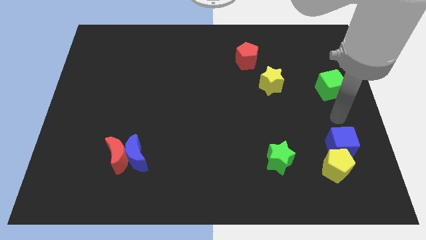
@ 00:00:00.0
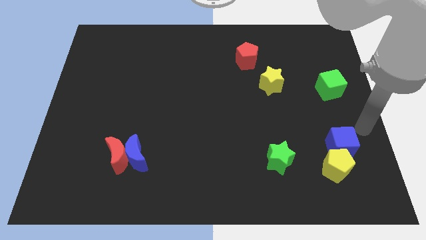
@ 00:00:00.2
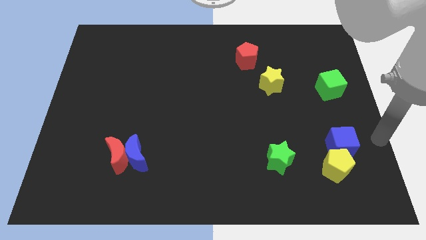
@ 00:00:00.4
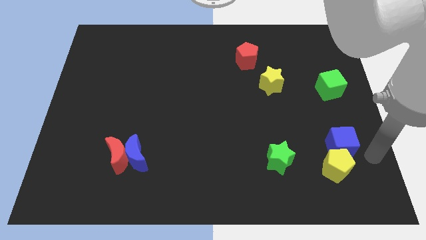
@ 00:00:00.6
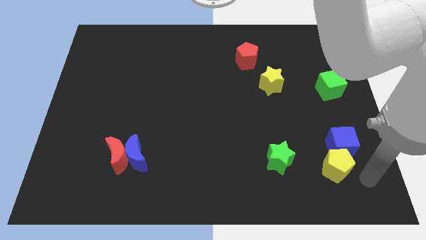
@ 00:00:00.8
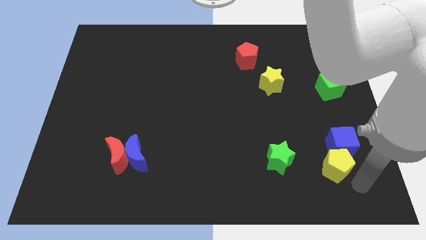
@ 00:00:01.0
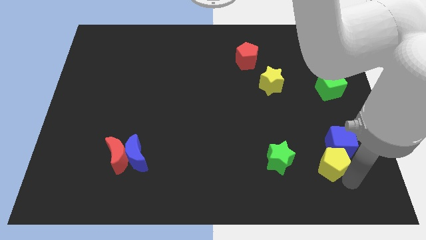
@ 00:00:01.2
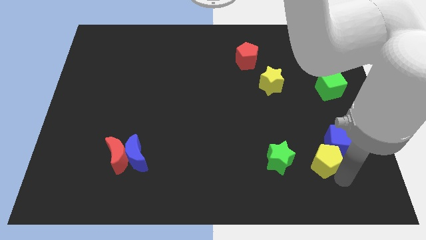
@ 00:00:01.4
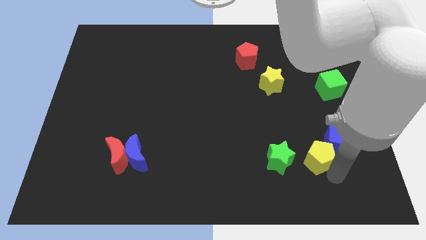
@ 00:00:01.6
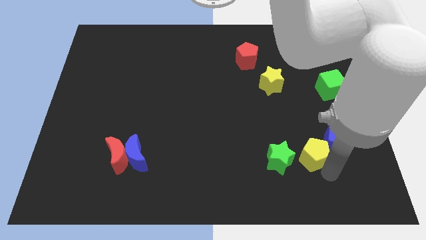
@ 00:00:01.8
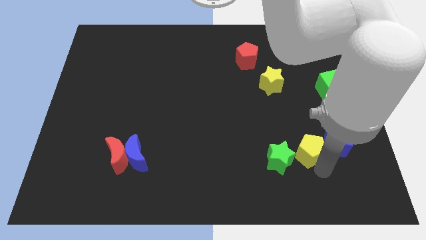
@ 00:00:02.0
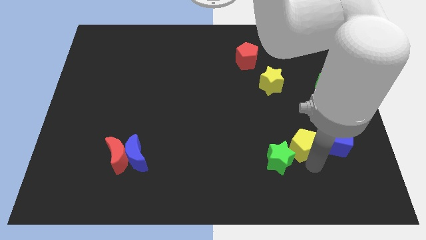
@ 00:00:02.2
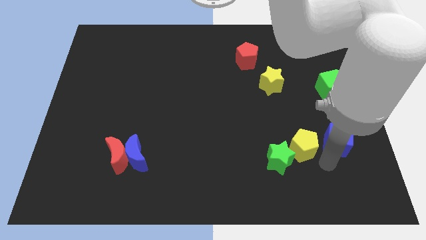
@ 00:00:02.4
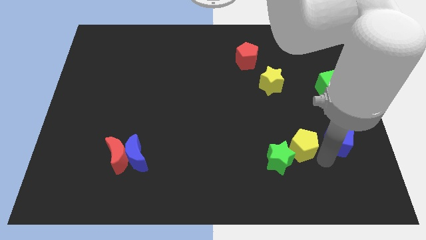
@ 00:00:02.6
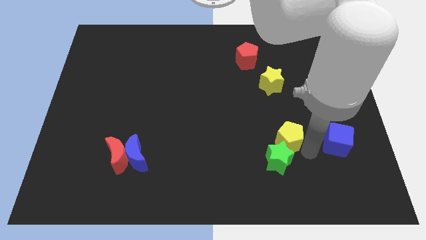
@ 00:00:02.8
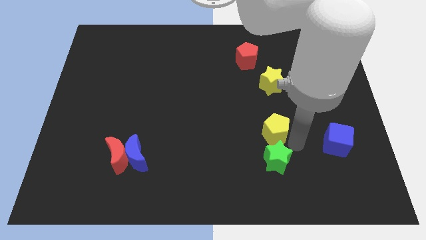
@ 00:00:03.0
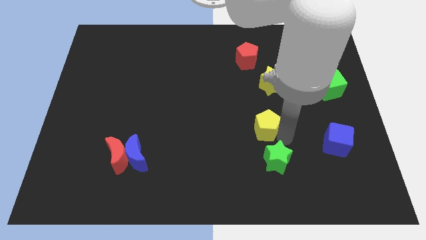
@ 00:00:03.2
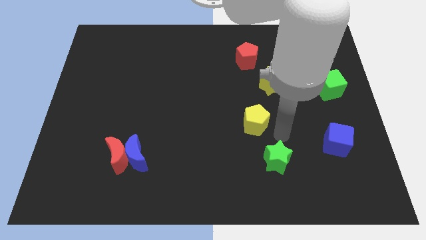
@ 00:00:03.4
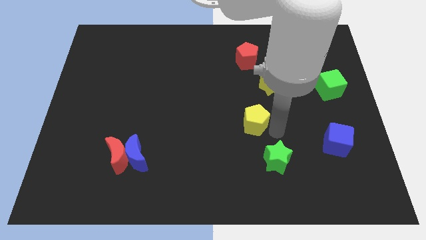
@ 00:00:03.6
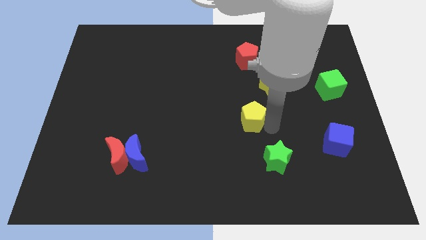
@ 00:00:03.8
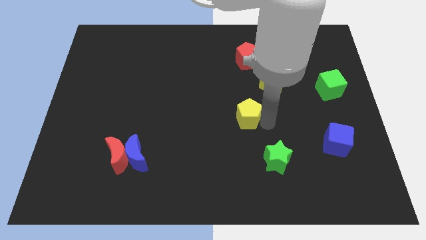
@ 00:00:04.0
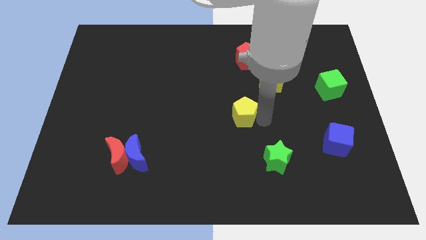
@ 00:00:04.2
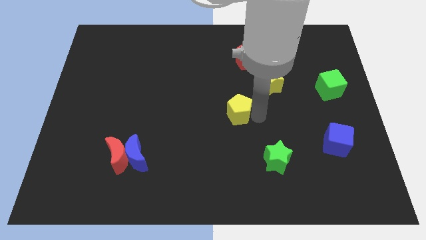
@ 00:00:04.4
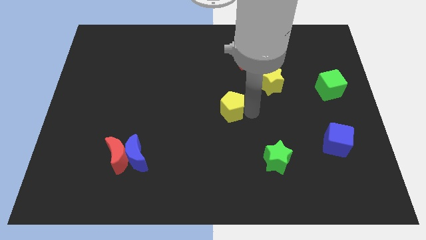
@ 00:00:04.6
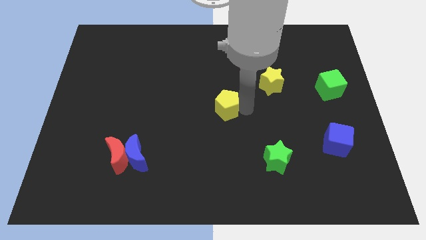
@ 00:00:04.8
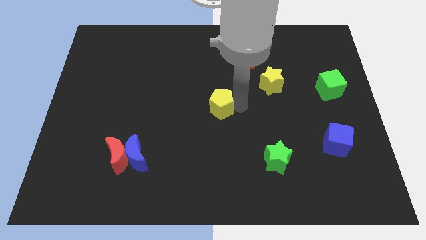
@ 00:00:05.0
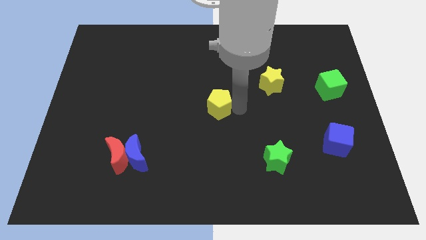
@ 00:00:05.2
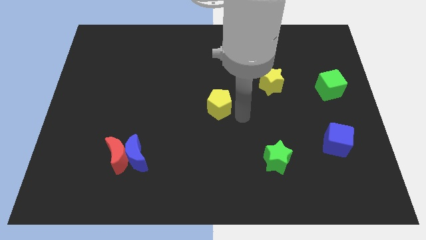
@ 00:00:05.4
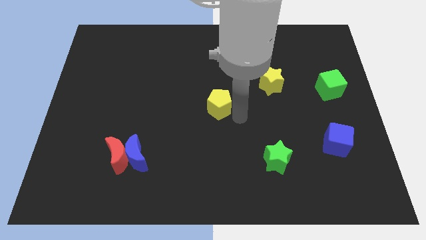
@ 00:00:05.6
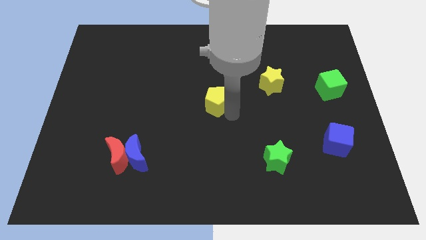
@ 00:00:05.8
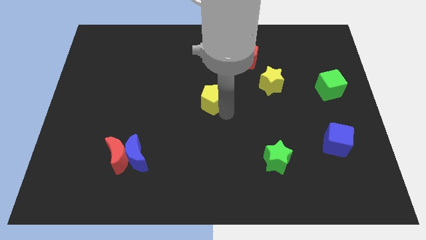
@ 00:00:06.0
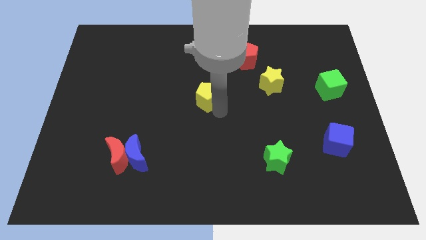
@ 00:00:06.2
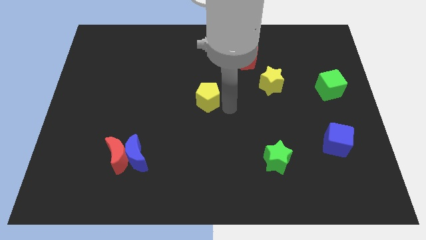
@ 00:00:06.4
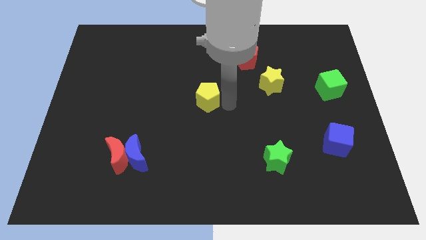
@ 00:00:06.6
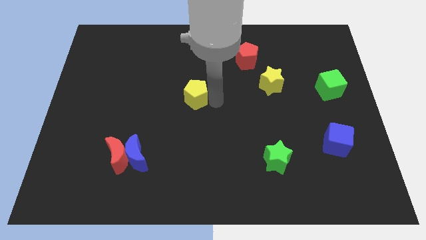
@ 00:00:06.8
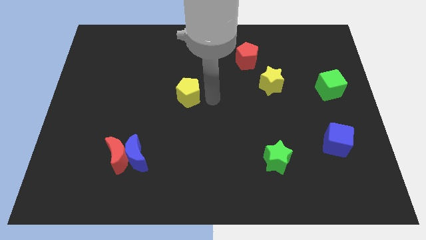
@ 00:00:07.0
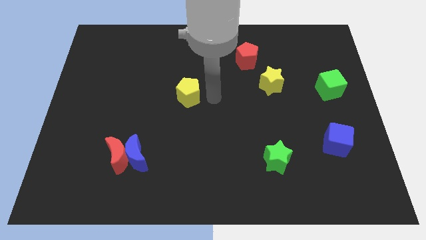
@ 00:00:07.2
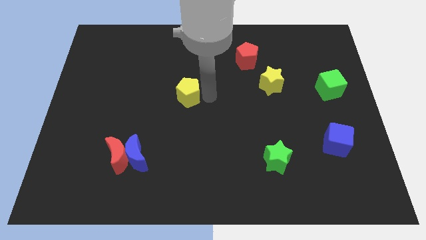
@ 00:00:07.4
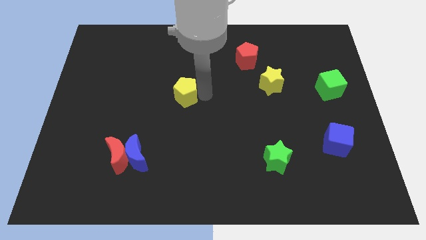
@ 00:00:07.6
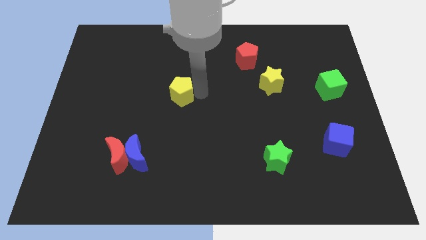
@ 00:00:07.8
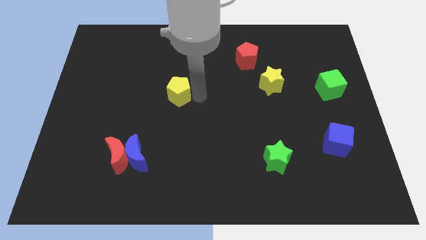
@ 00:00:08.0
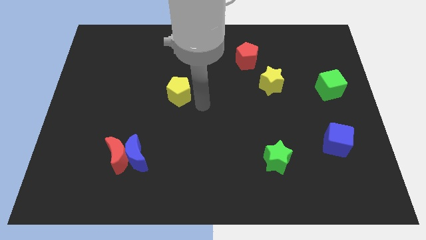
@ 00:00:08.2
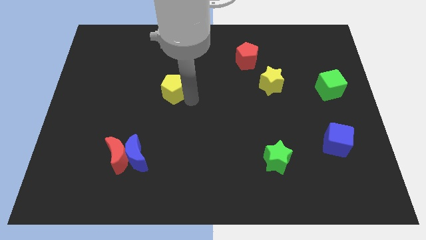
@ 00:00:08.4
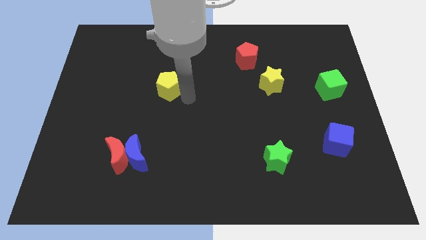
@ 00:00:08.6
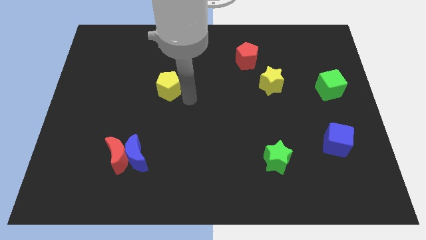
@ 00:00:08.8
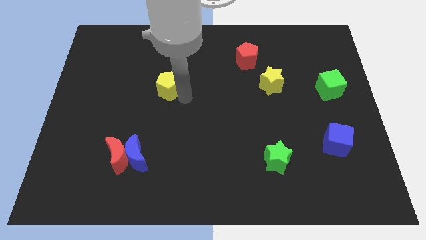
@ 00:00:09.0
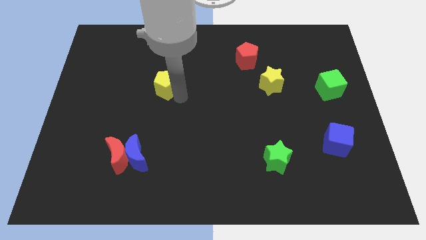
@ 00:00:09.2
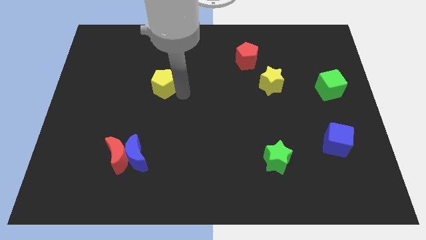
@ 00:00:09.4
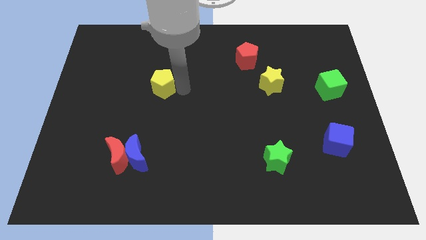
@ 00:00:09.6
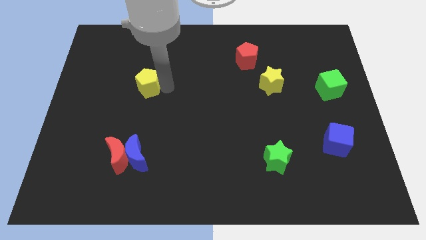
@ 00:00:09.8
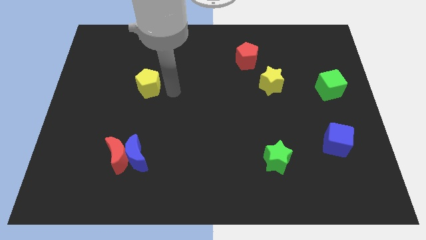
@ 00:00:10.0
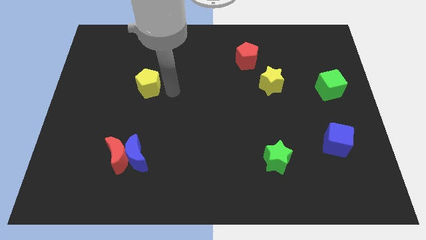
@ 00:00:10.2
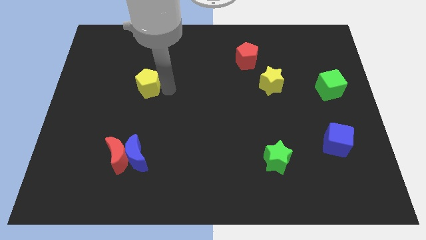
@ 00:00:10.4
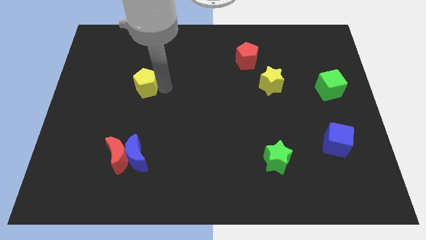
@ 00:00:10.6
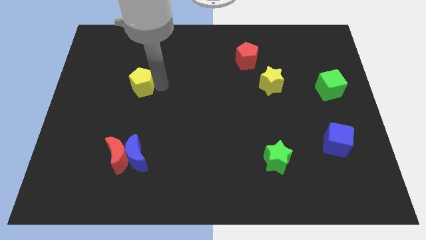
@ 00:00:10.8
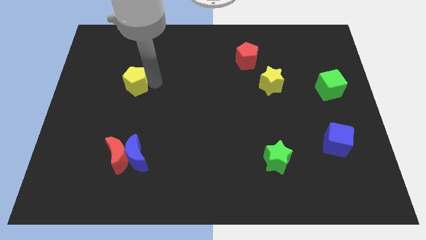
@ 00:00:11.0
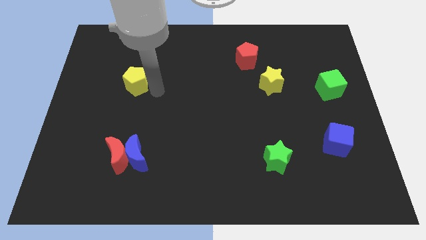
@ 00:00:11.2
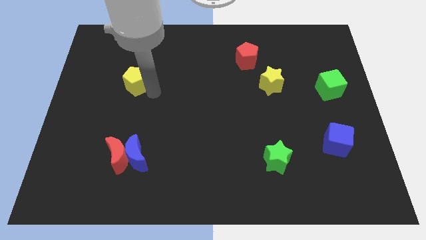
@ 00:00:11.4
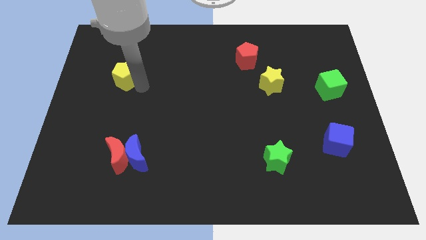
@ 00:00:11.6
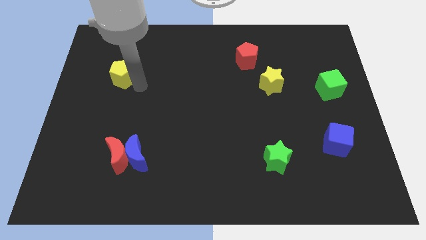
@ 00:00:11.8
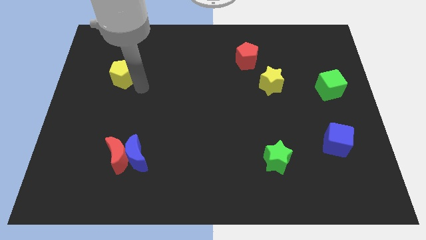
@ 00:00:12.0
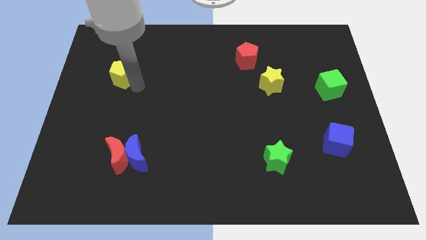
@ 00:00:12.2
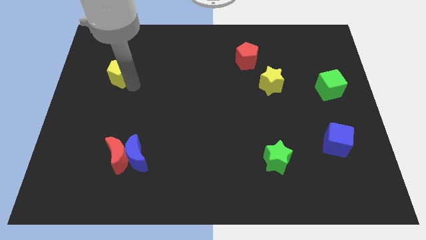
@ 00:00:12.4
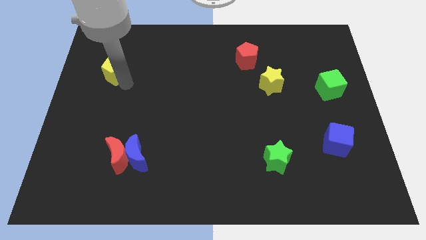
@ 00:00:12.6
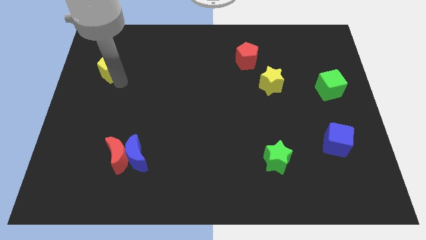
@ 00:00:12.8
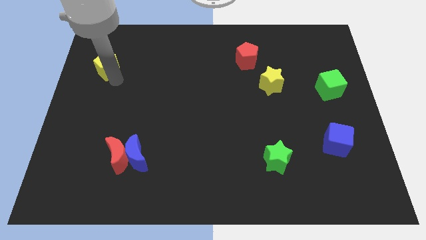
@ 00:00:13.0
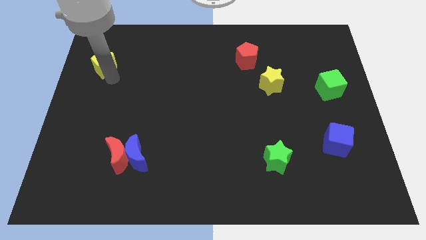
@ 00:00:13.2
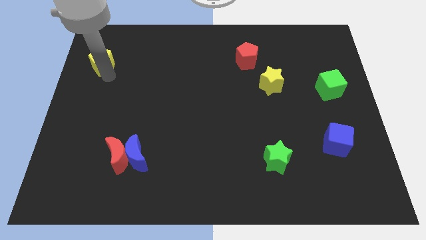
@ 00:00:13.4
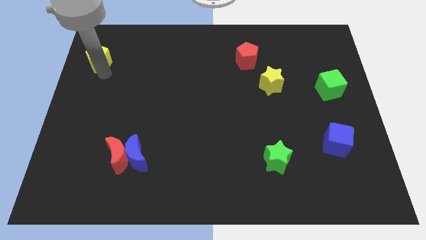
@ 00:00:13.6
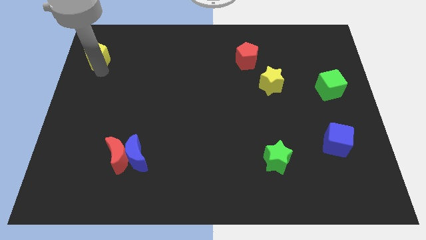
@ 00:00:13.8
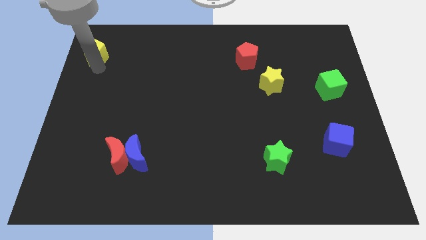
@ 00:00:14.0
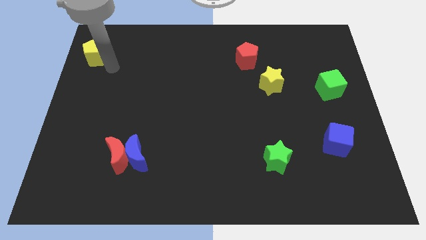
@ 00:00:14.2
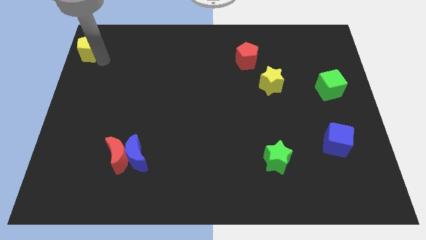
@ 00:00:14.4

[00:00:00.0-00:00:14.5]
put the yellow pentagon to the top left of the board
